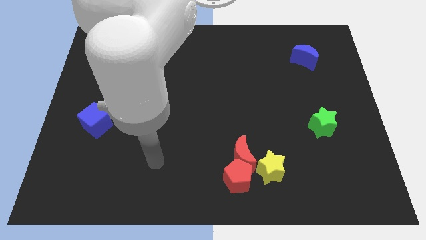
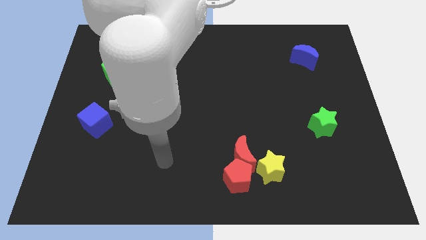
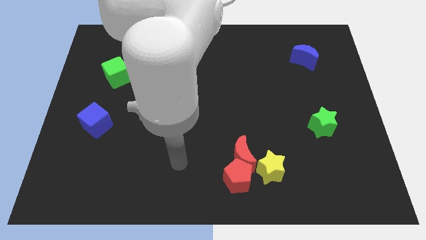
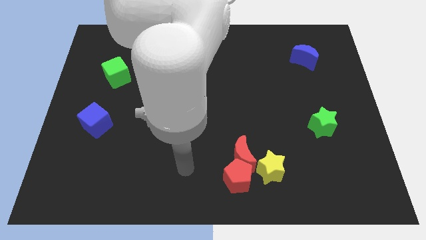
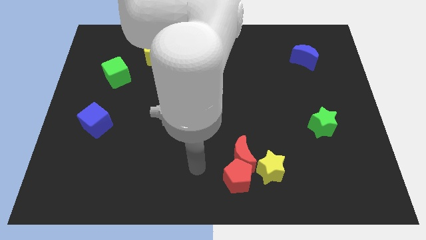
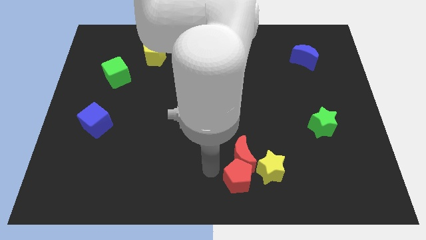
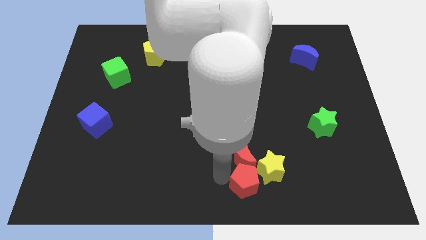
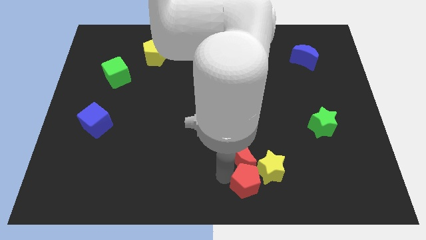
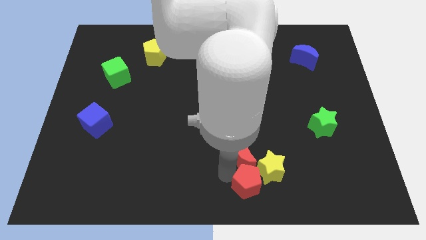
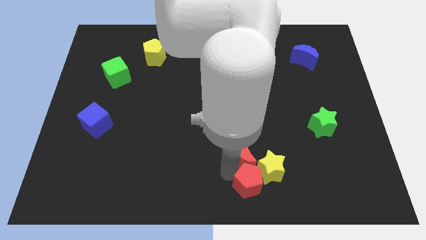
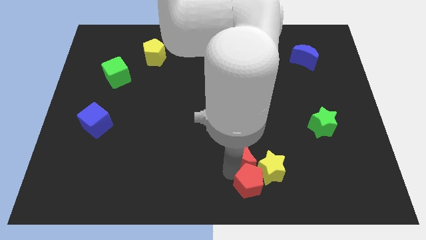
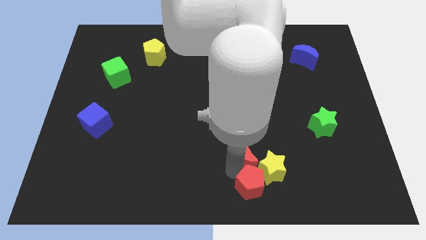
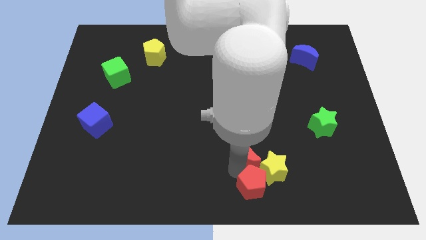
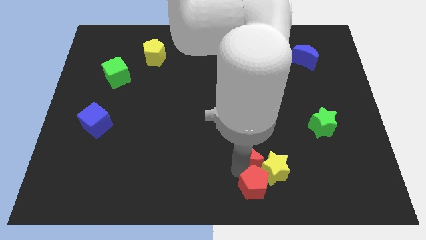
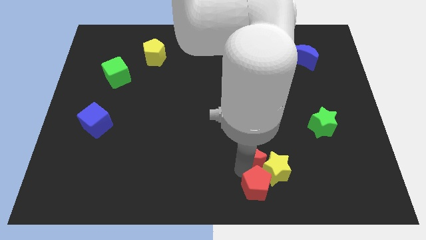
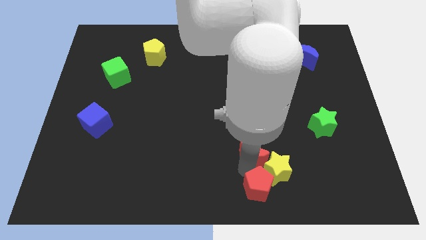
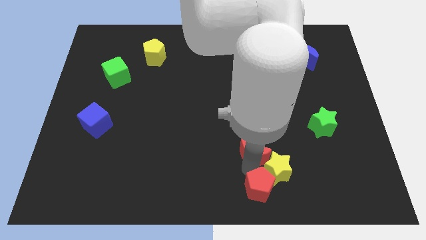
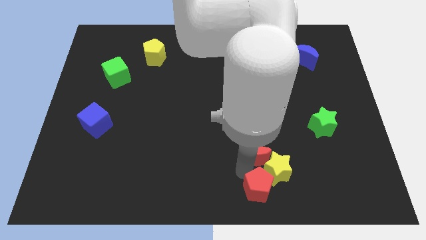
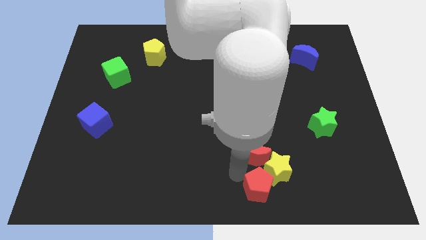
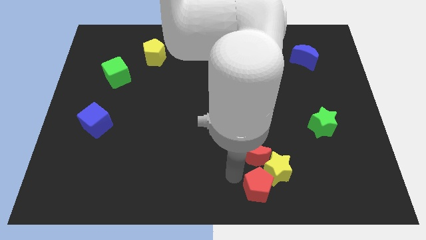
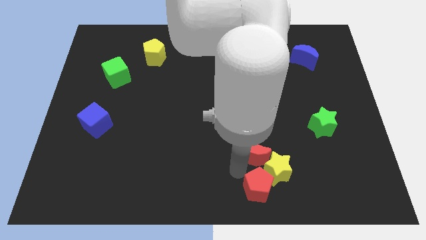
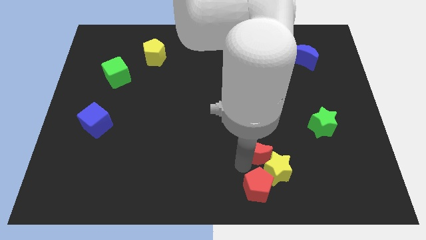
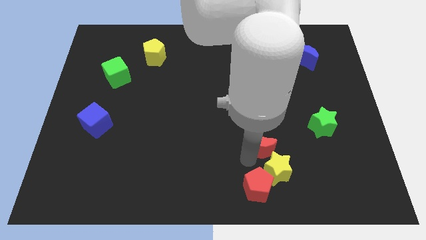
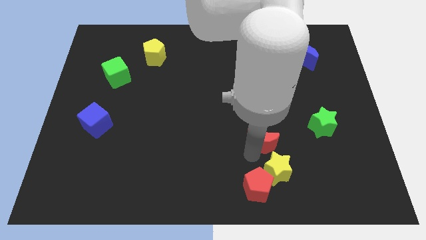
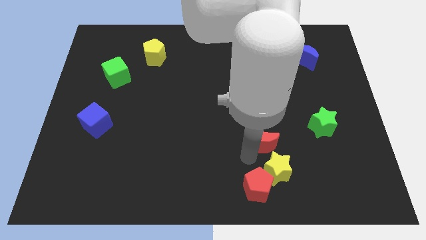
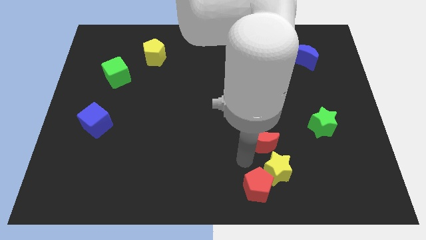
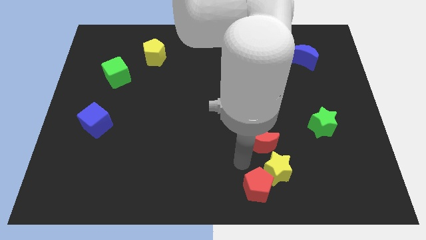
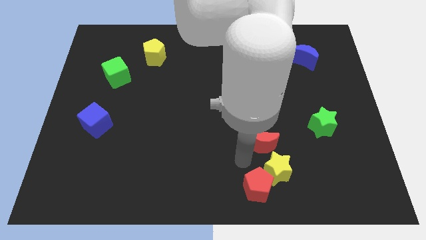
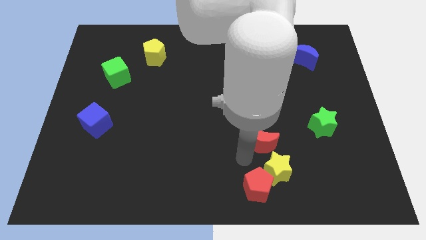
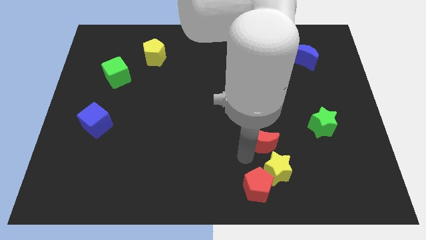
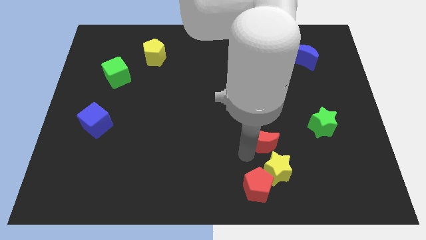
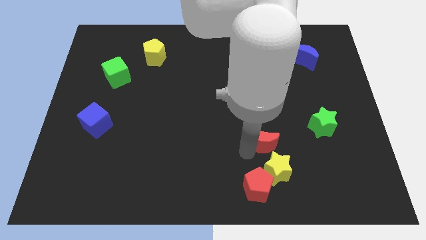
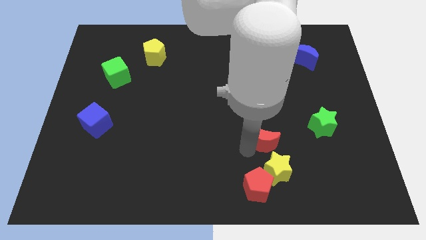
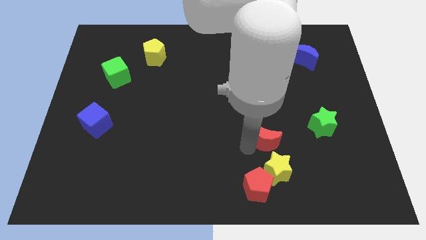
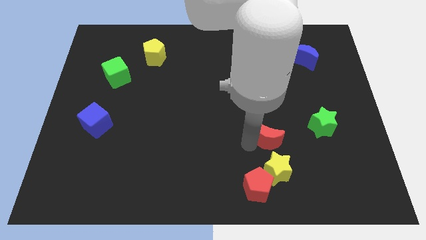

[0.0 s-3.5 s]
push the red moon upwards and to the right diagonally somewhat

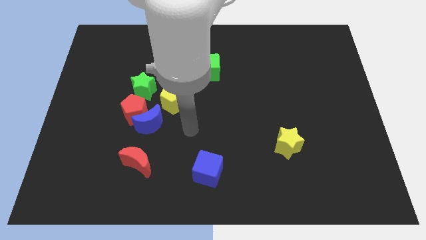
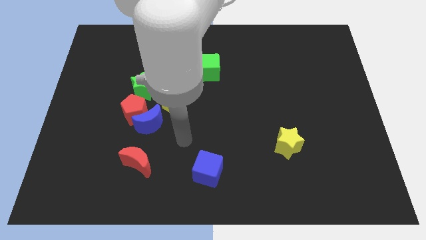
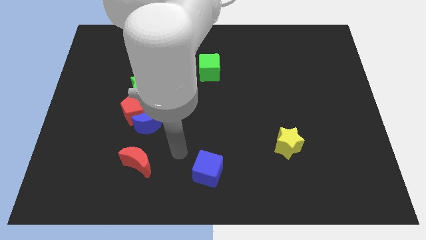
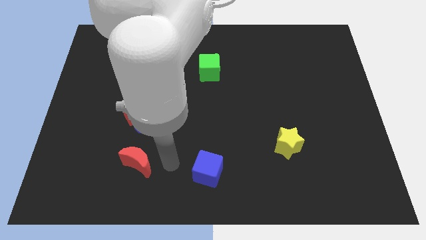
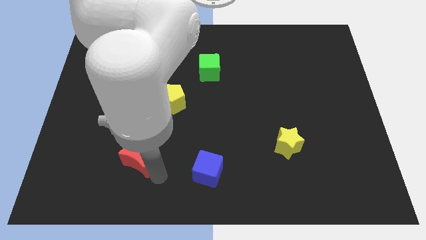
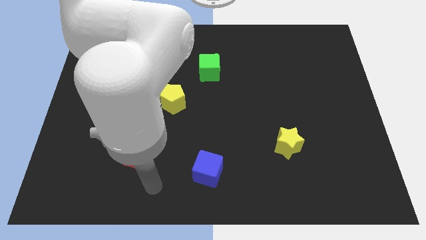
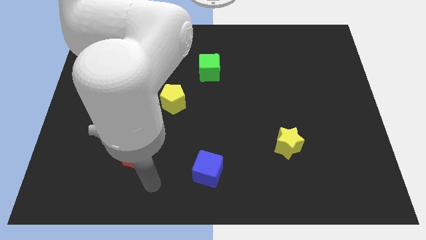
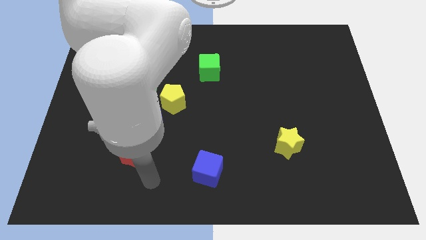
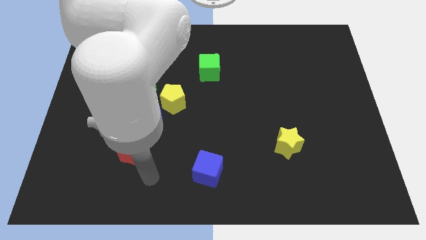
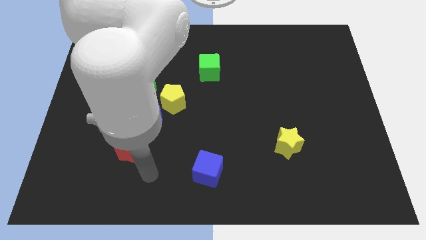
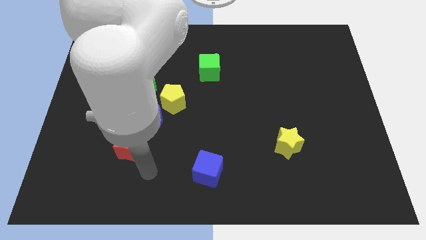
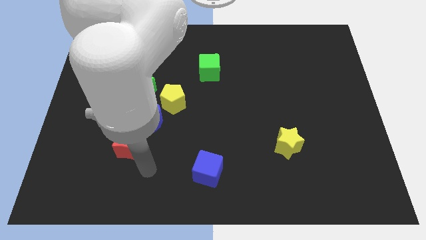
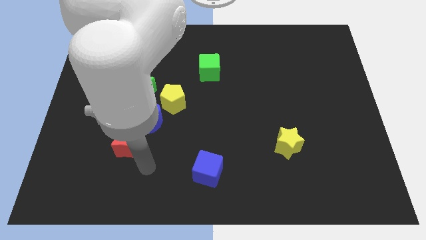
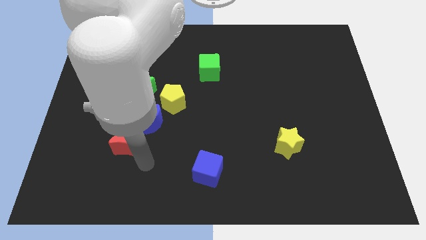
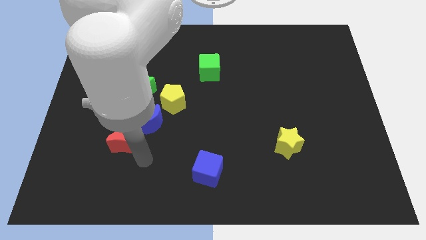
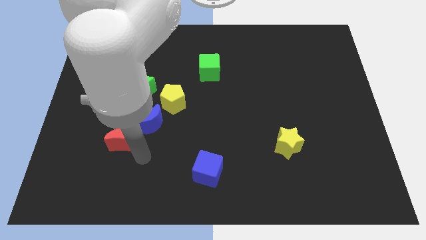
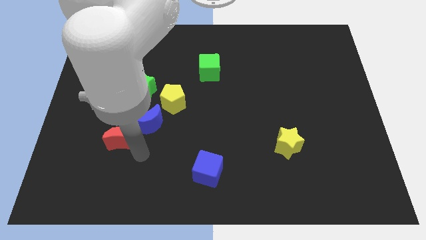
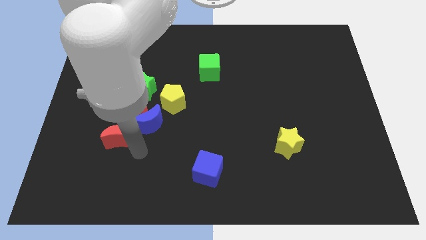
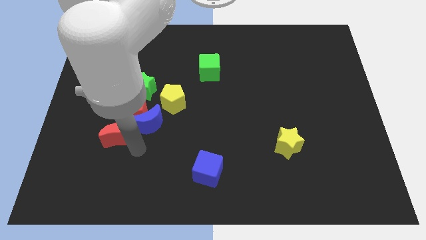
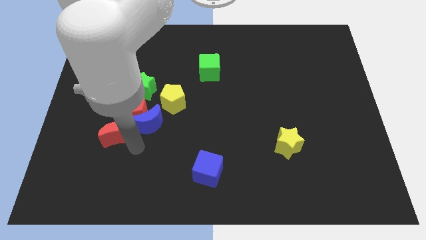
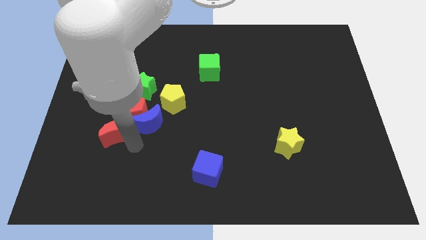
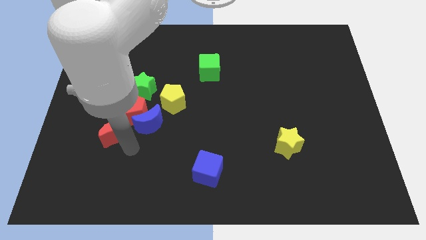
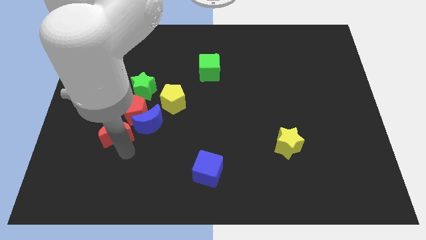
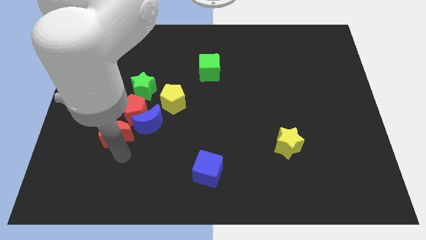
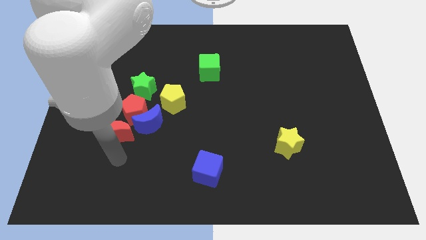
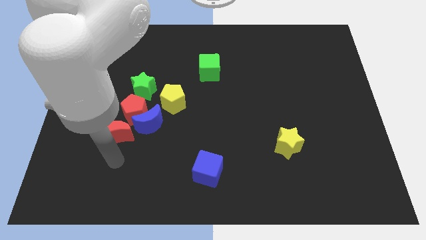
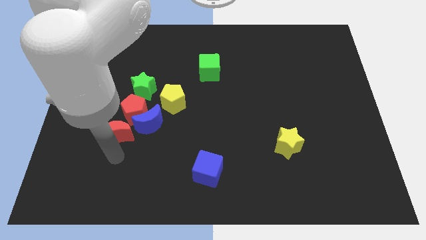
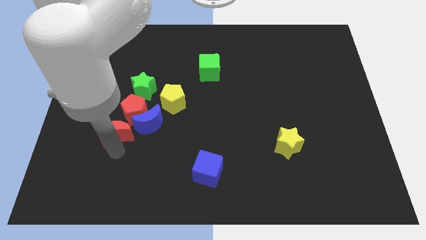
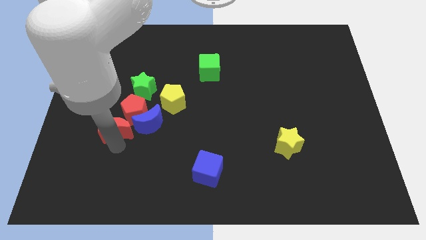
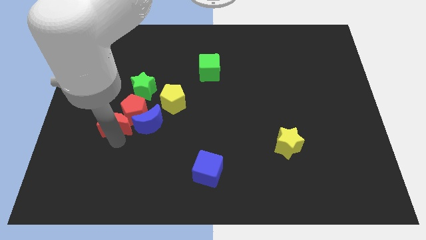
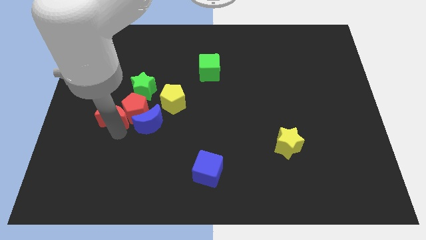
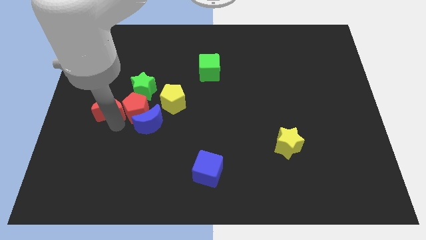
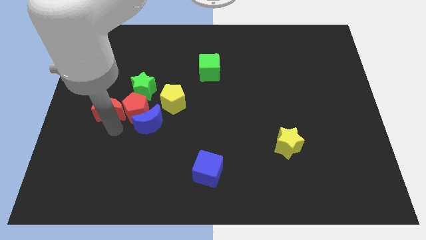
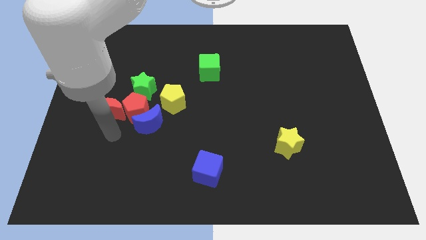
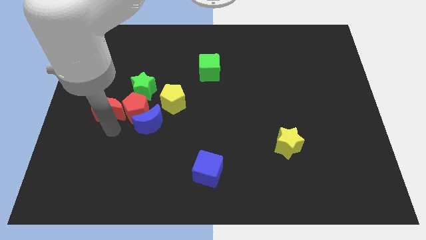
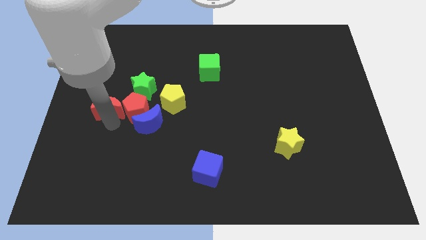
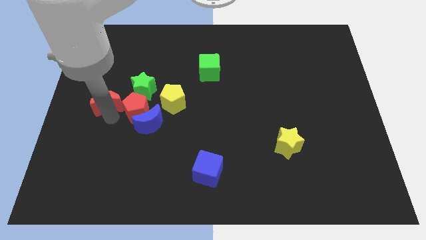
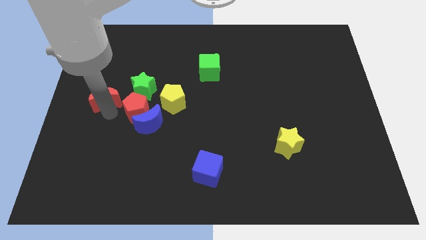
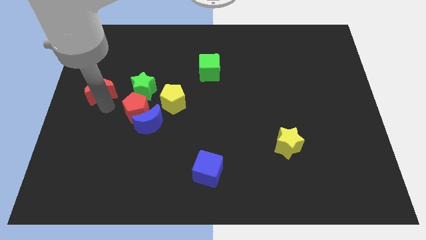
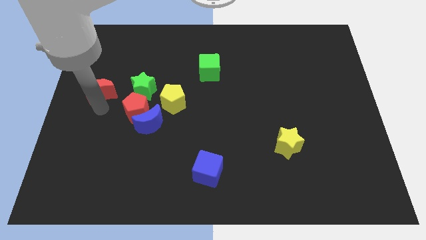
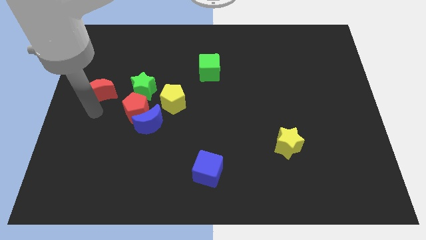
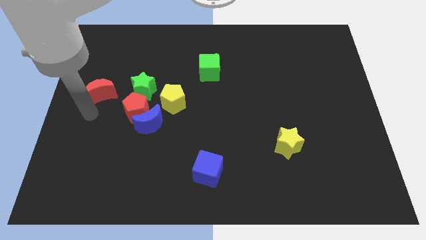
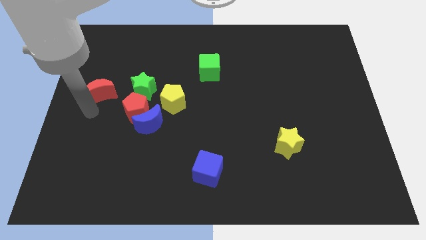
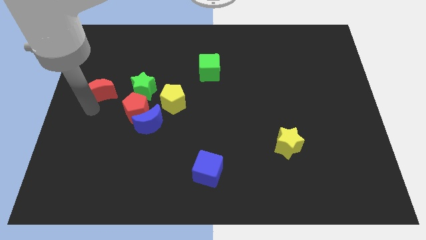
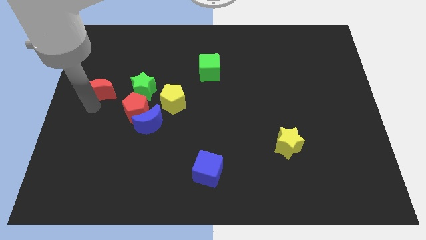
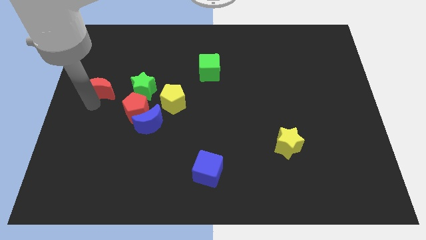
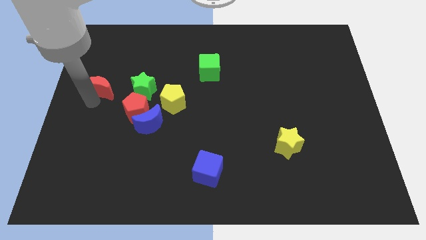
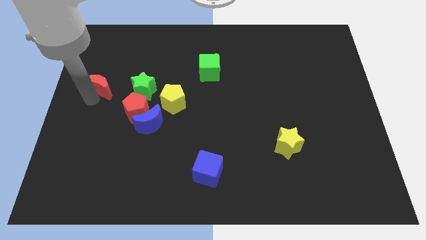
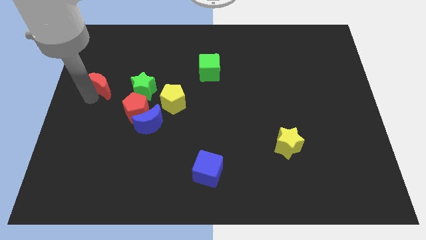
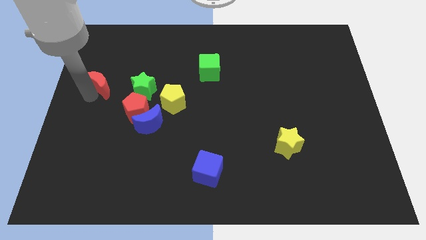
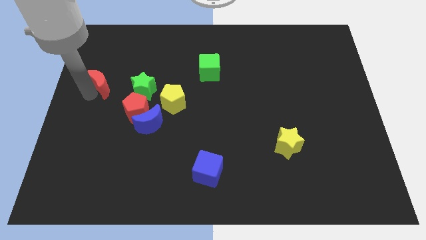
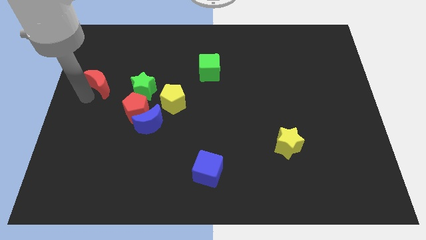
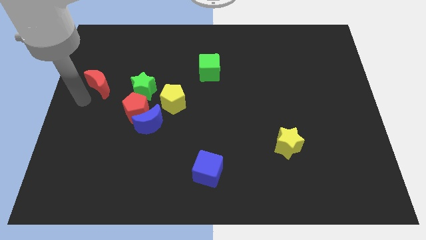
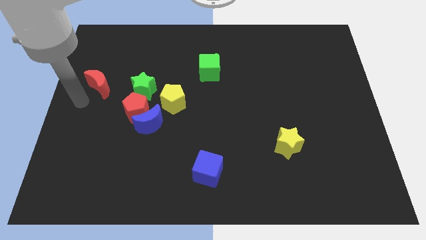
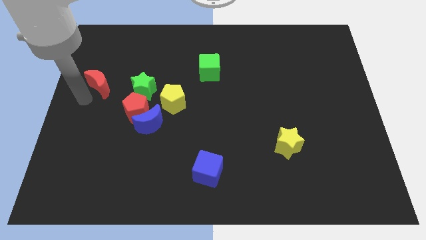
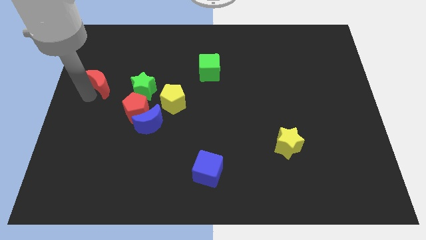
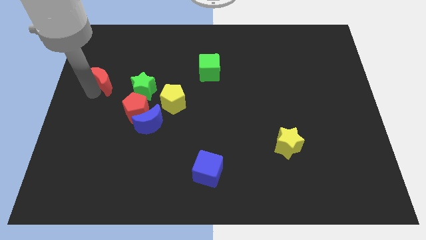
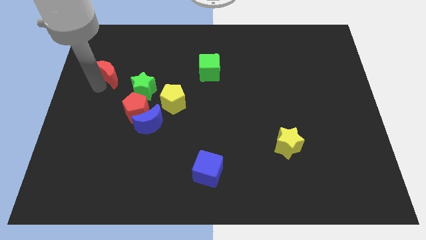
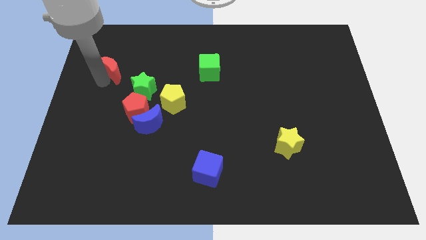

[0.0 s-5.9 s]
push the red moon up
